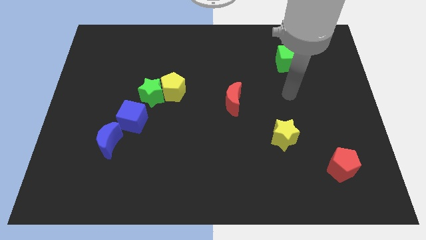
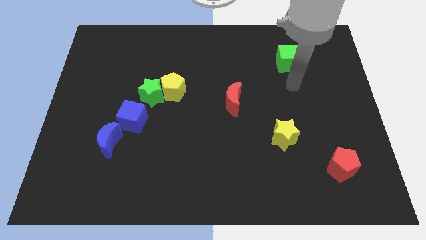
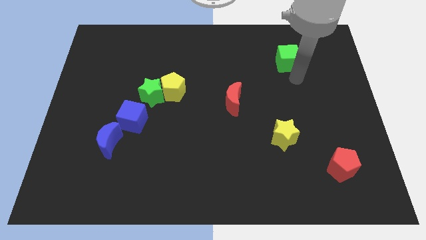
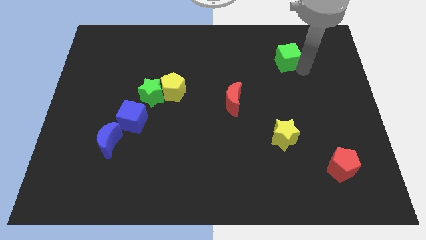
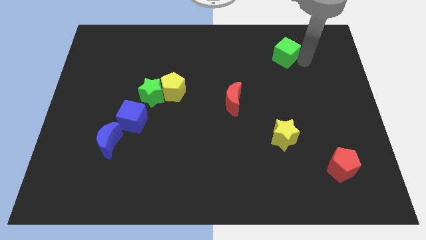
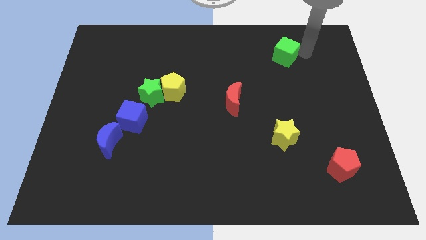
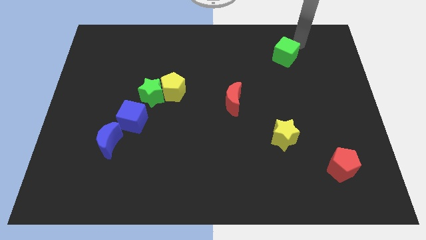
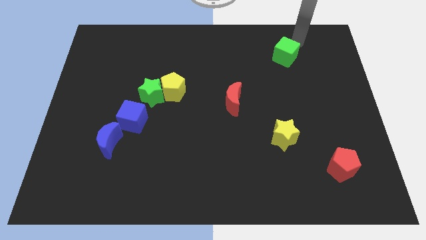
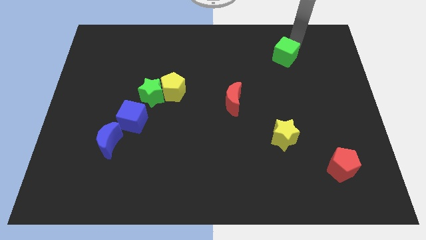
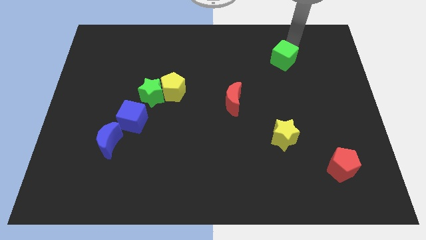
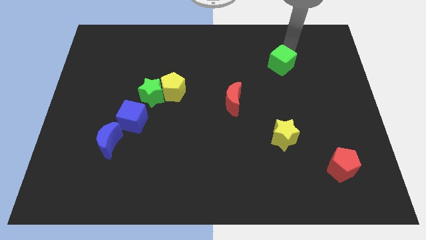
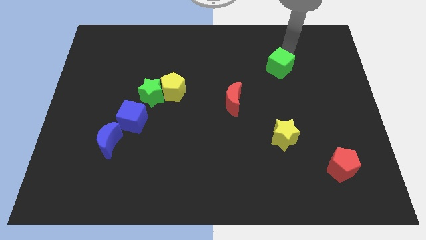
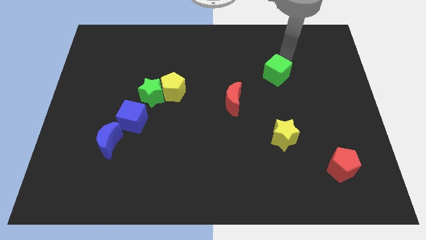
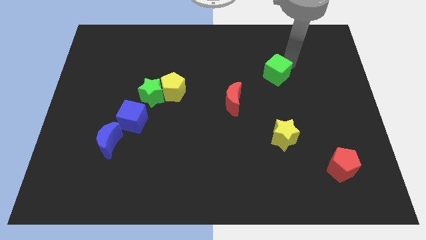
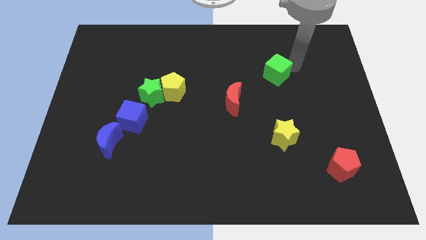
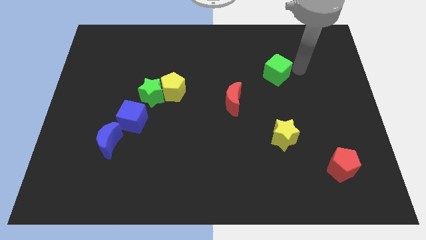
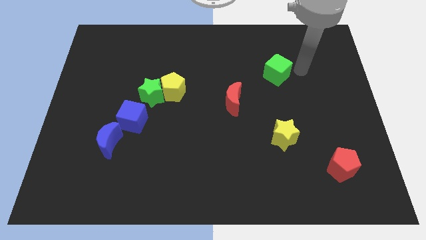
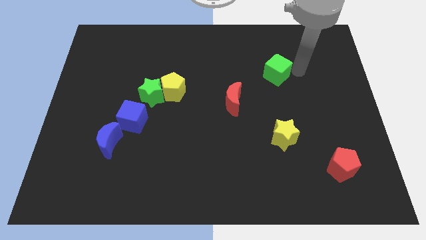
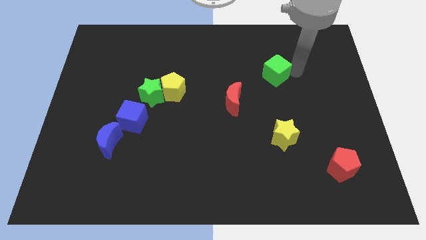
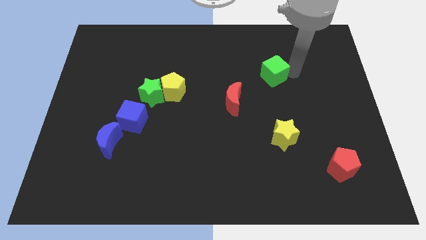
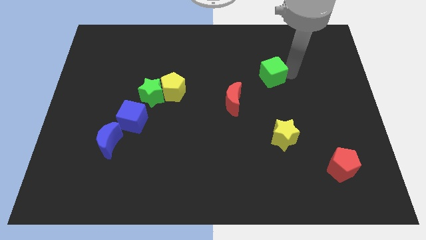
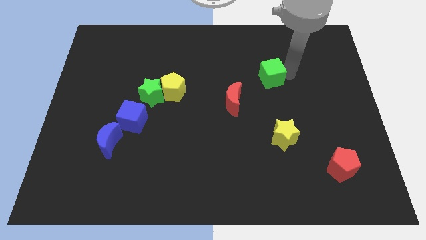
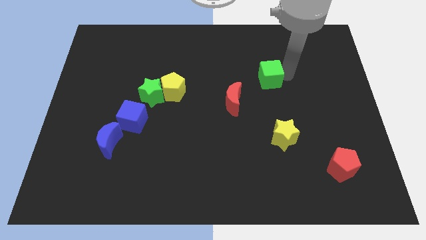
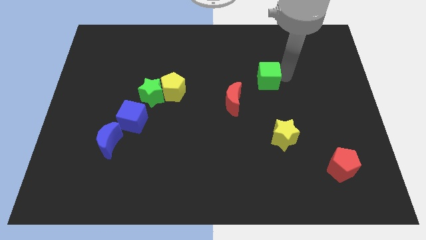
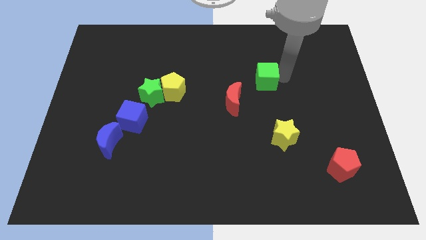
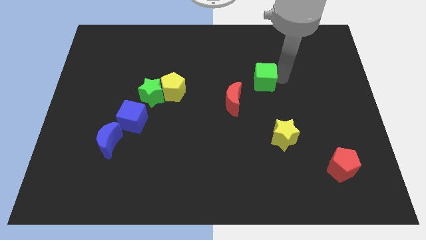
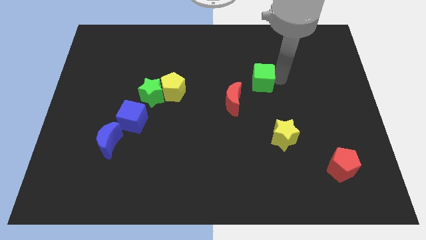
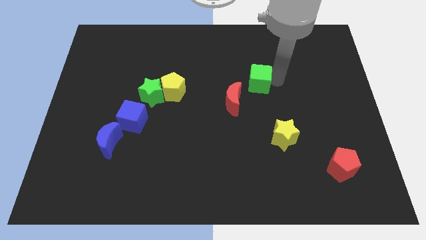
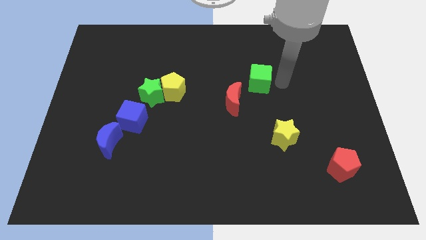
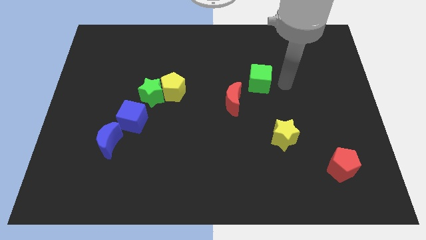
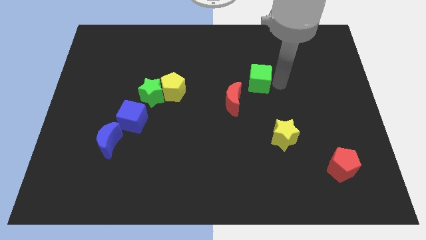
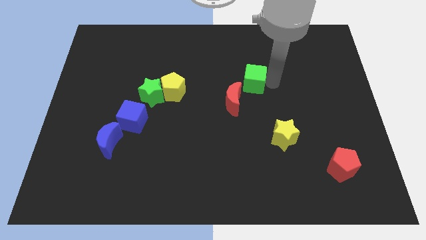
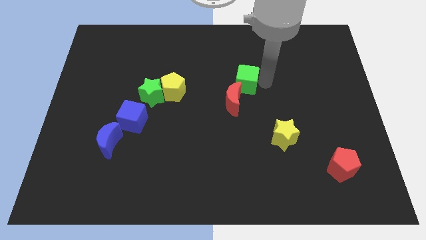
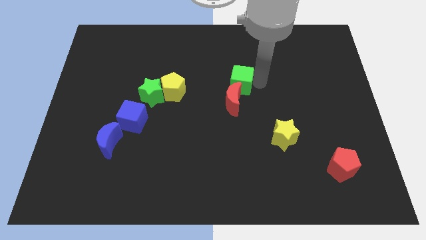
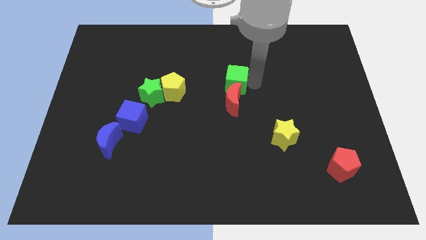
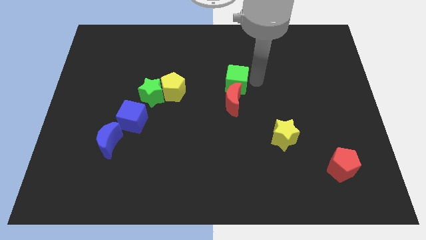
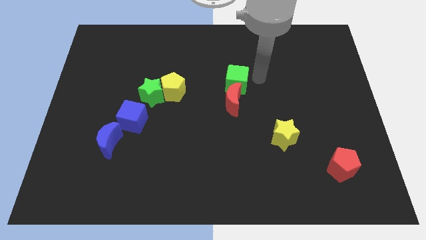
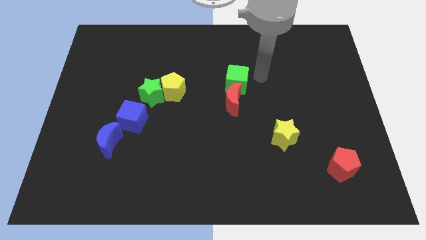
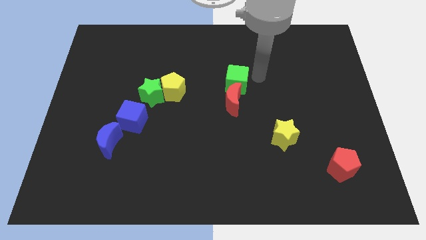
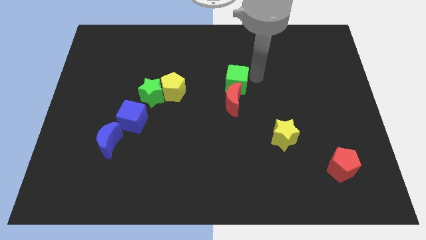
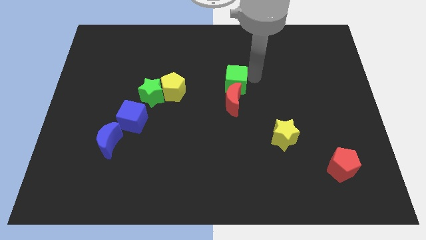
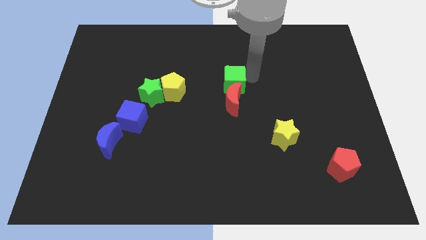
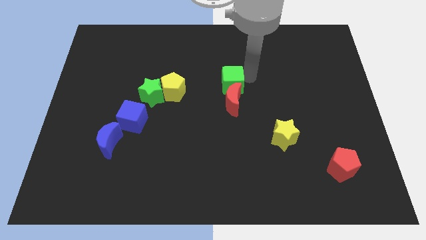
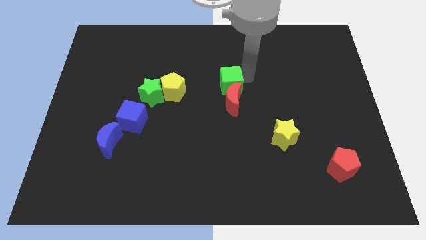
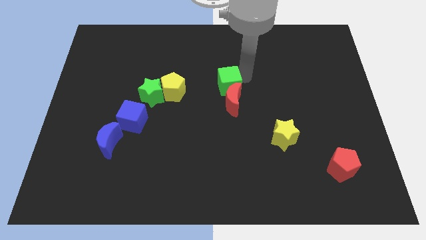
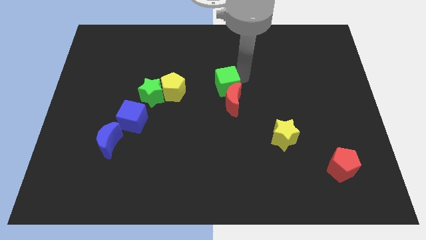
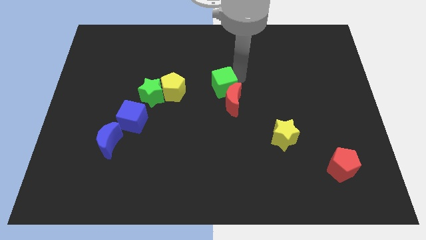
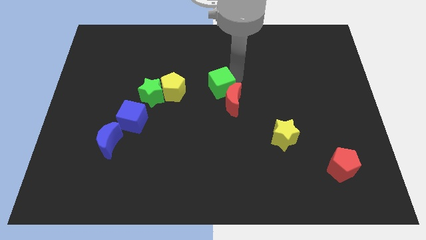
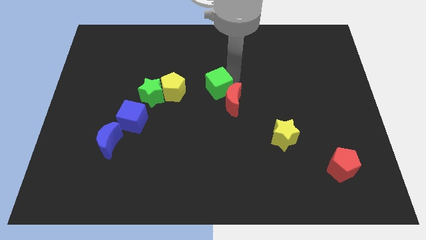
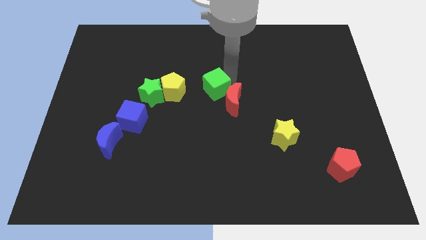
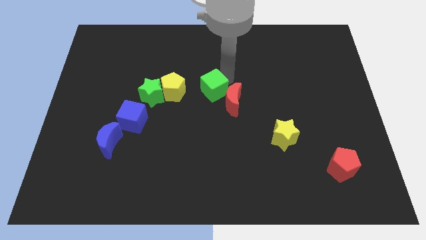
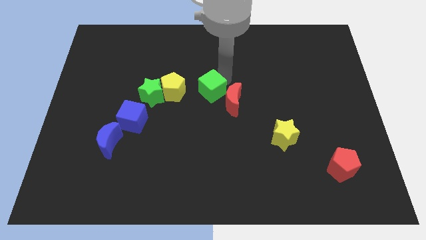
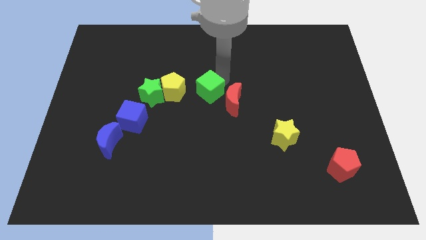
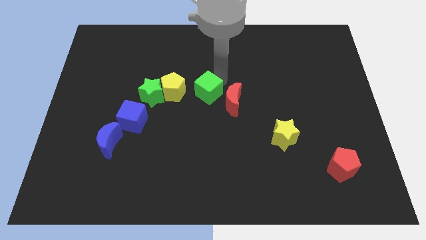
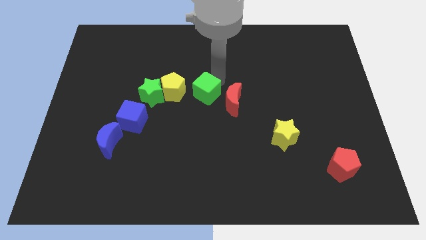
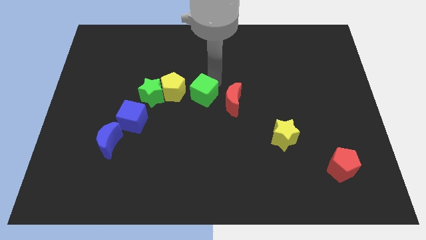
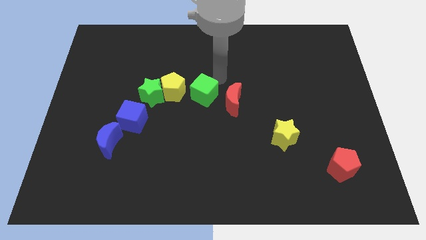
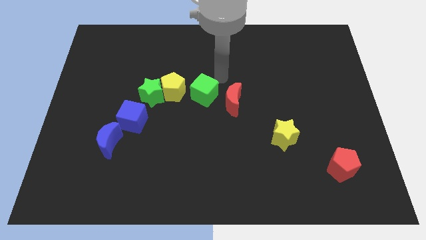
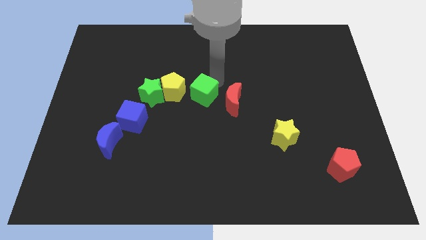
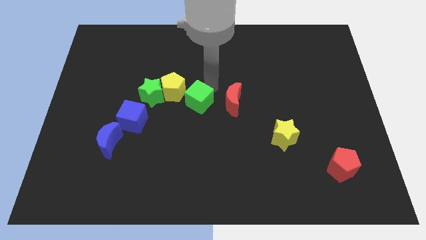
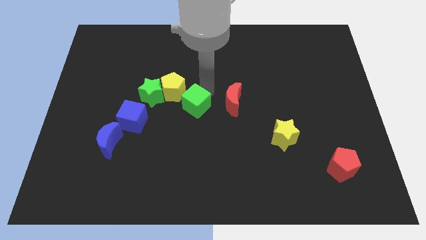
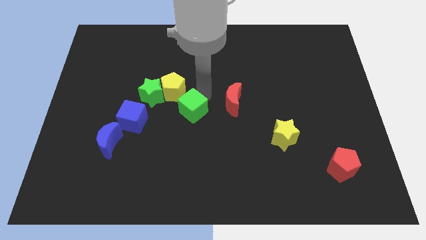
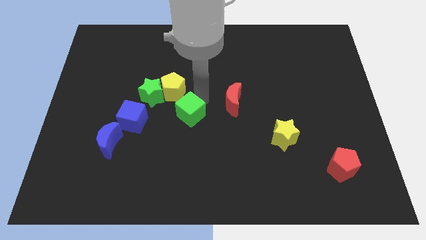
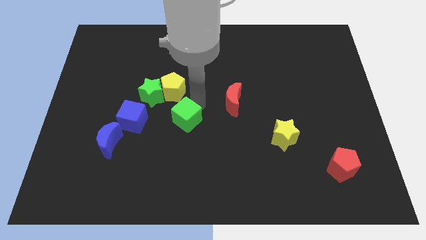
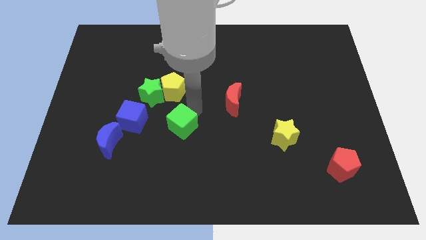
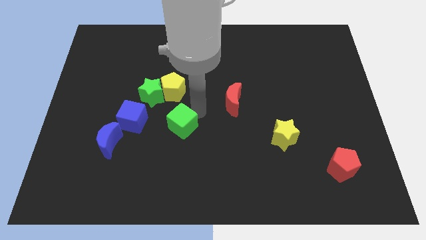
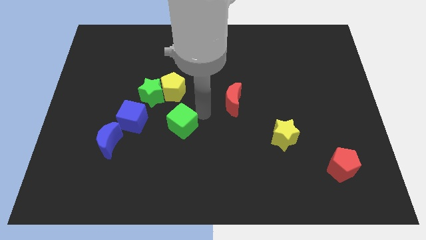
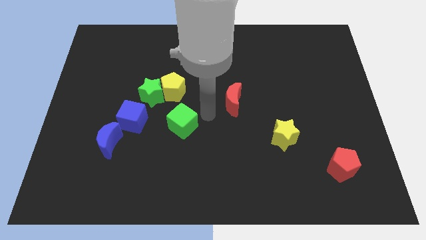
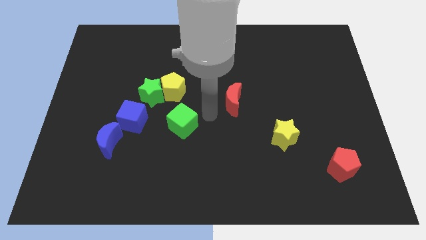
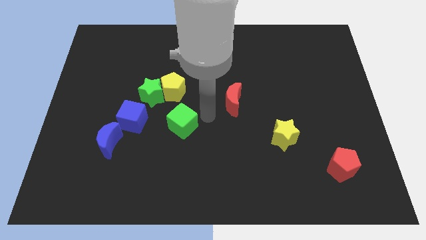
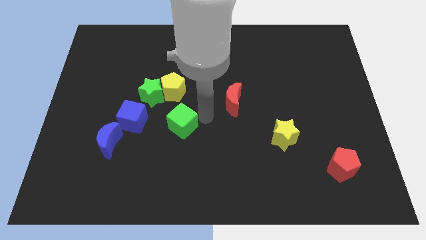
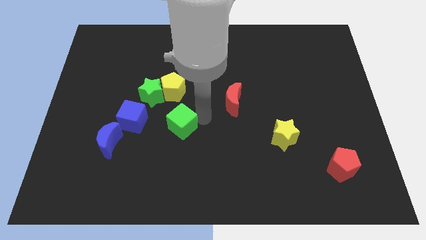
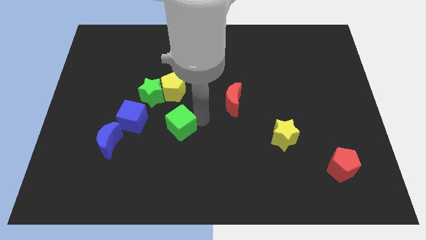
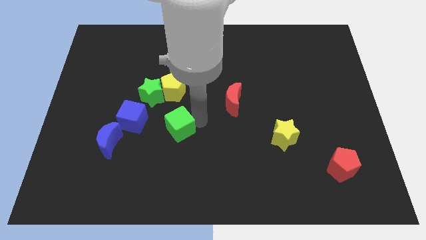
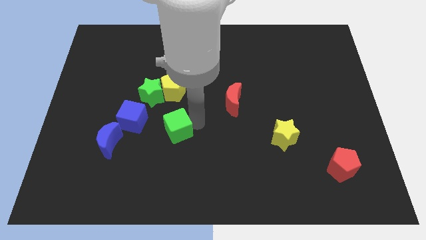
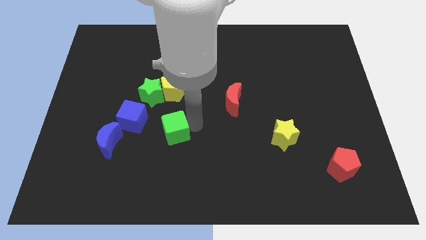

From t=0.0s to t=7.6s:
slide the green cube to the bottom right of the blue cube
